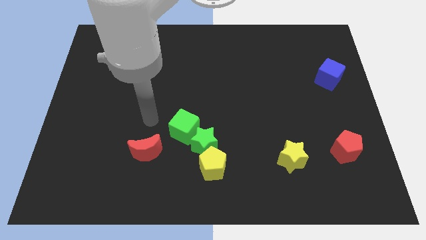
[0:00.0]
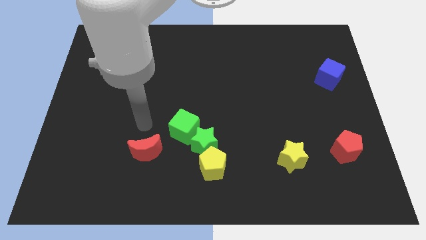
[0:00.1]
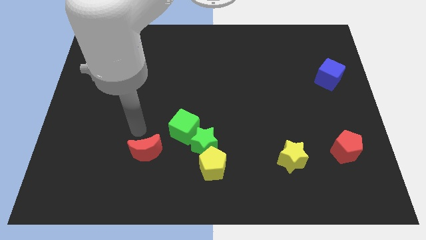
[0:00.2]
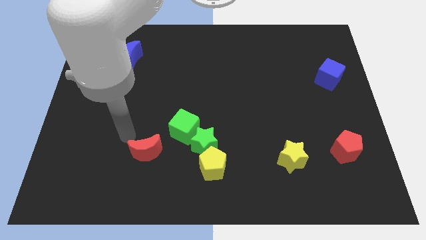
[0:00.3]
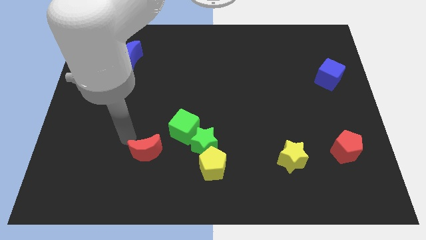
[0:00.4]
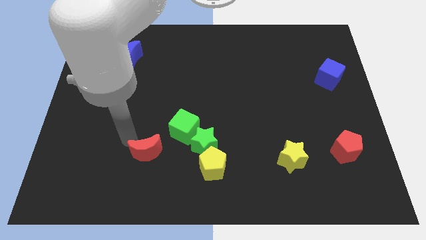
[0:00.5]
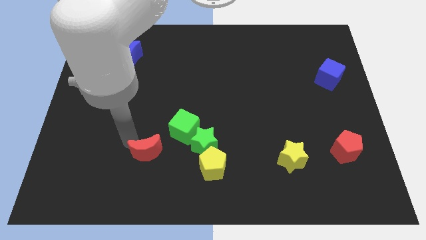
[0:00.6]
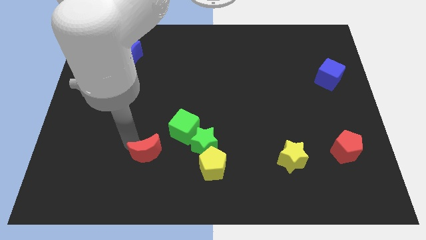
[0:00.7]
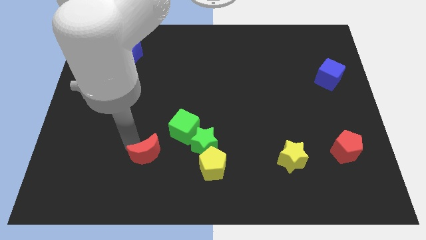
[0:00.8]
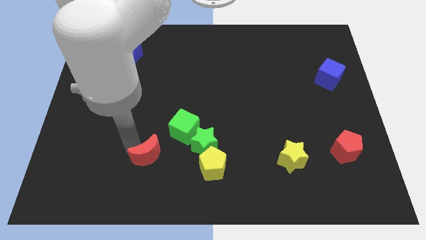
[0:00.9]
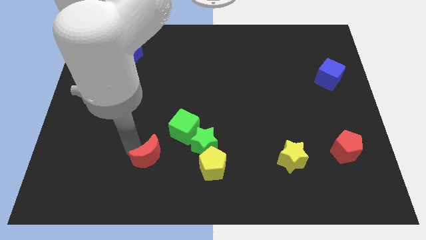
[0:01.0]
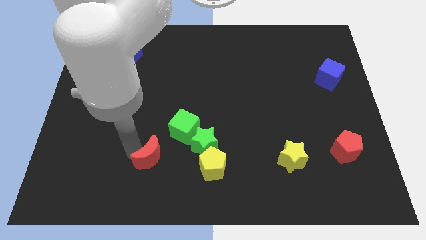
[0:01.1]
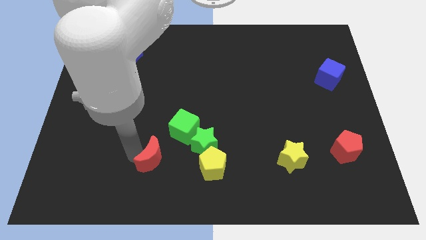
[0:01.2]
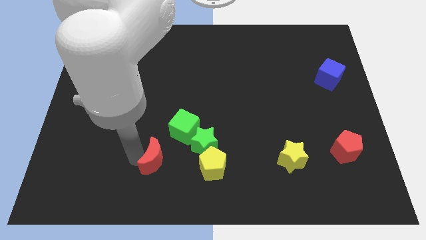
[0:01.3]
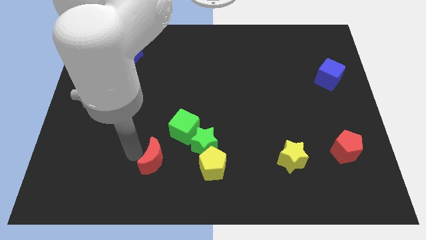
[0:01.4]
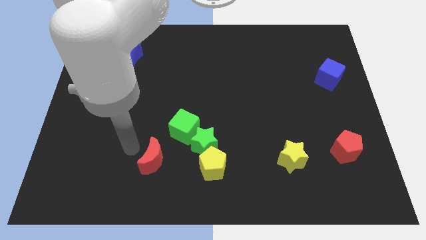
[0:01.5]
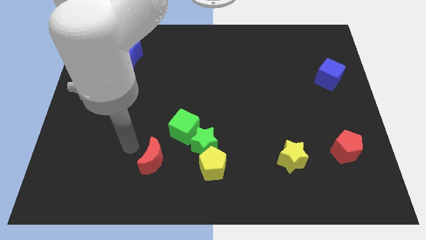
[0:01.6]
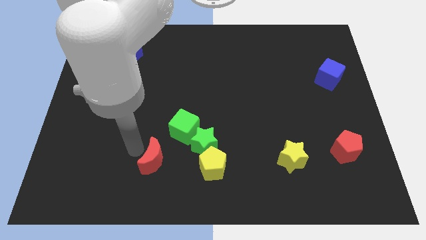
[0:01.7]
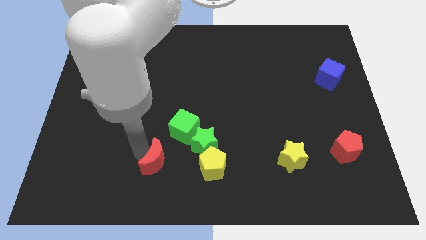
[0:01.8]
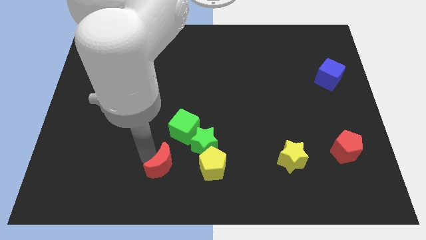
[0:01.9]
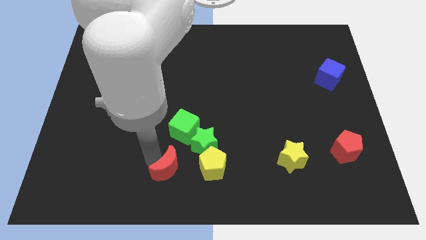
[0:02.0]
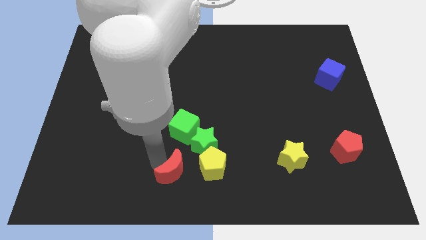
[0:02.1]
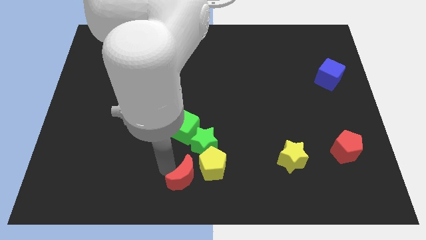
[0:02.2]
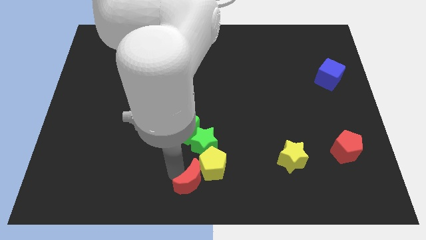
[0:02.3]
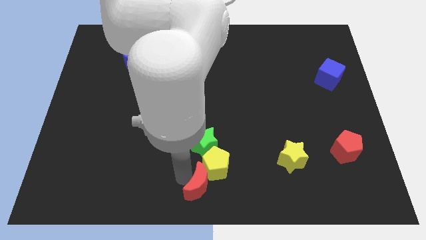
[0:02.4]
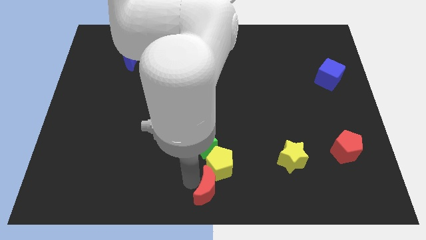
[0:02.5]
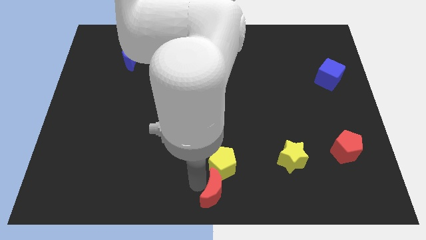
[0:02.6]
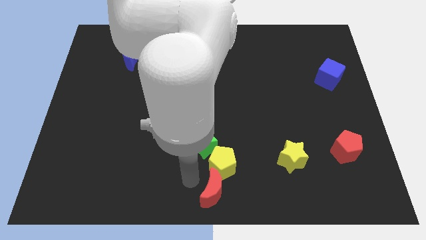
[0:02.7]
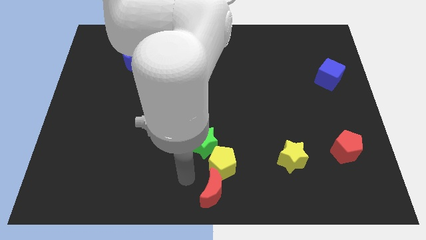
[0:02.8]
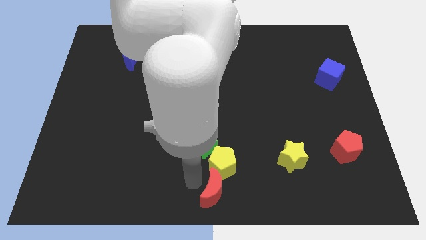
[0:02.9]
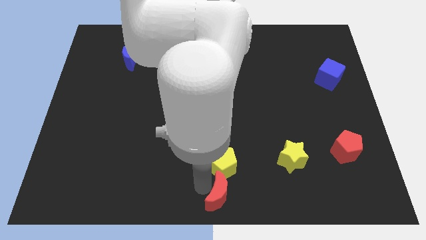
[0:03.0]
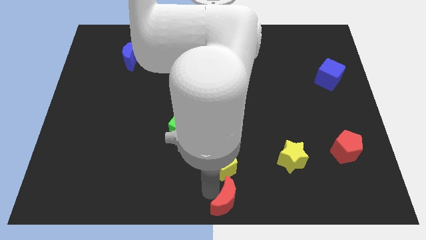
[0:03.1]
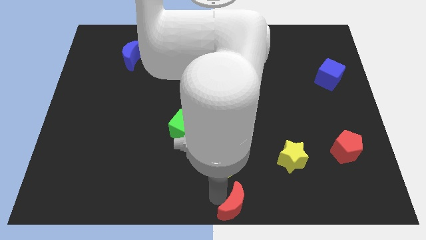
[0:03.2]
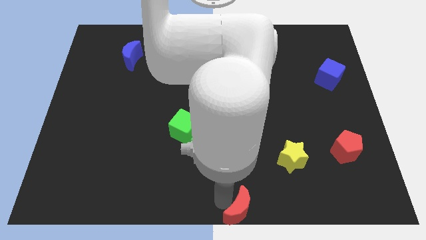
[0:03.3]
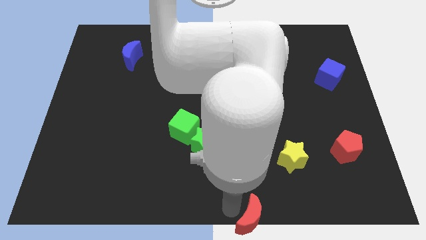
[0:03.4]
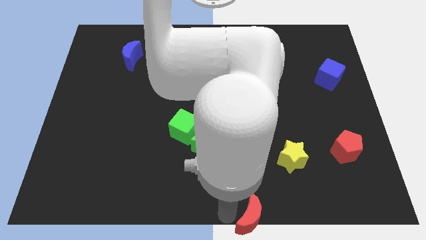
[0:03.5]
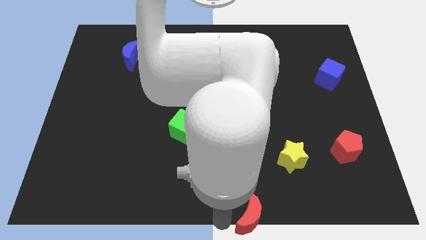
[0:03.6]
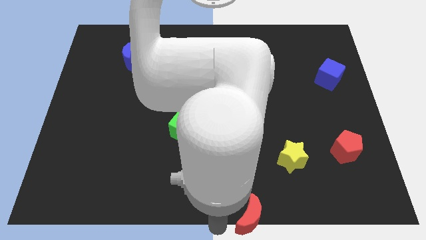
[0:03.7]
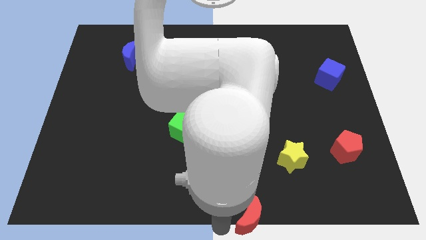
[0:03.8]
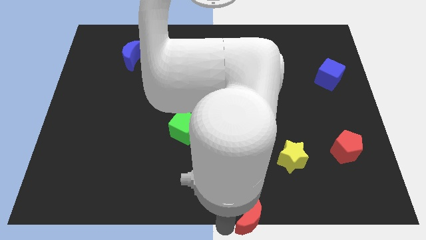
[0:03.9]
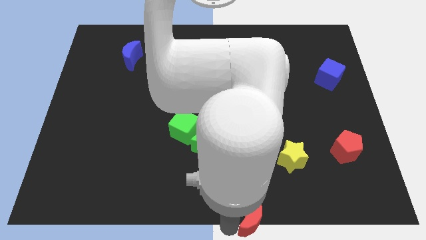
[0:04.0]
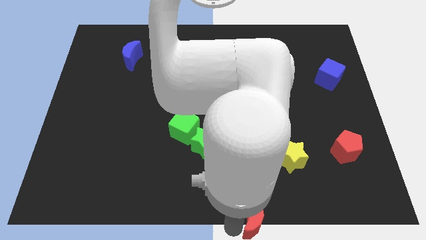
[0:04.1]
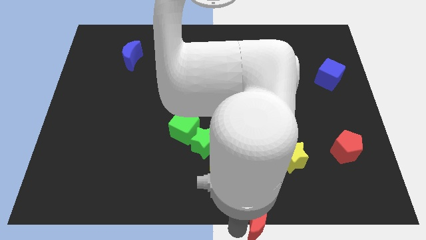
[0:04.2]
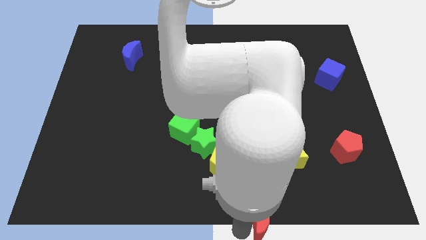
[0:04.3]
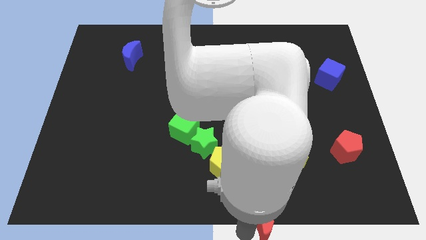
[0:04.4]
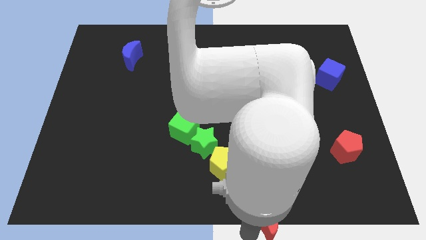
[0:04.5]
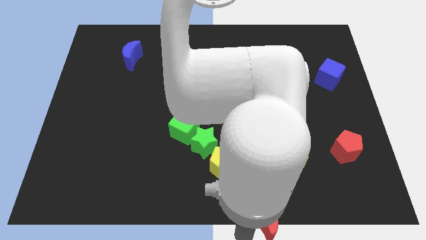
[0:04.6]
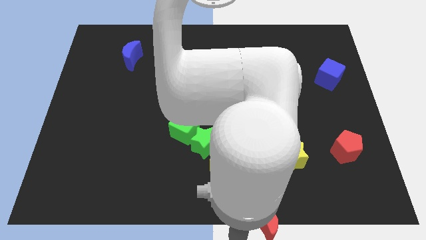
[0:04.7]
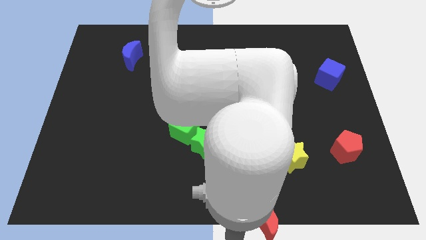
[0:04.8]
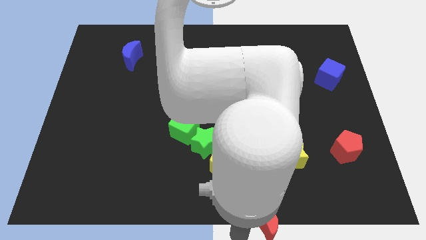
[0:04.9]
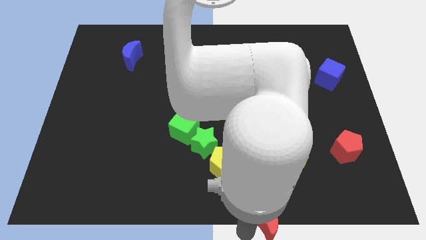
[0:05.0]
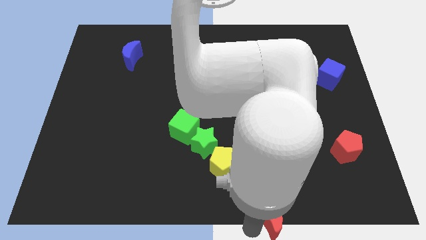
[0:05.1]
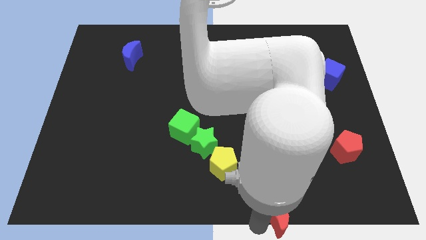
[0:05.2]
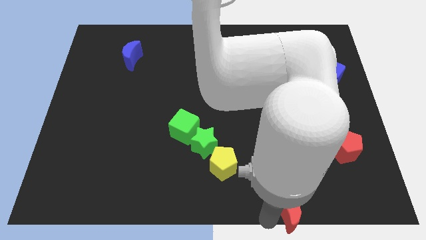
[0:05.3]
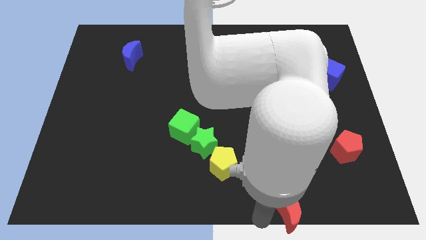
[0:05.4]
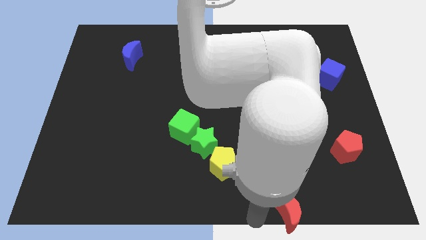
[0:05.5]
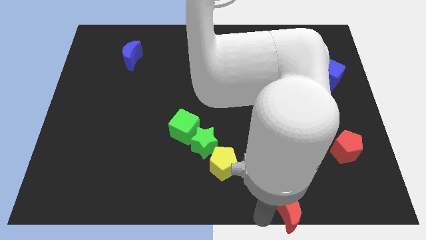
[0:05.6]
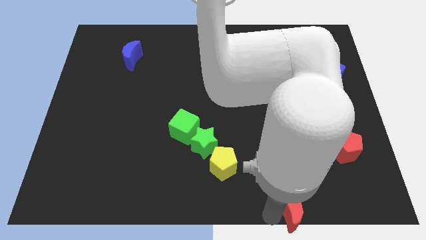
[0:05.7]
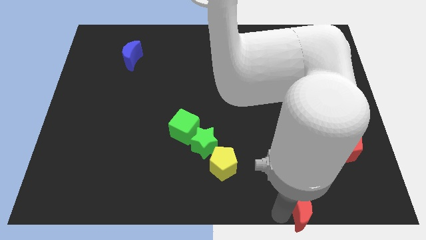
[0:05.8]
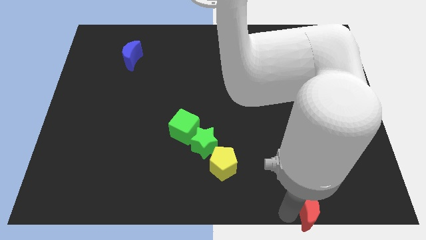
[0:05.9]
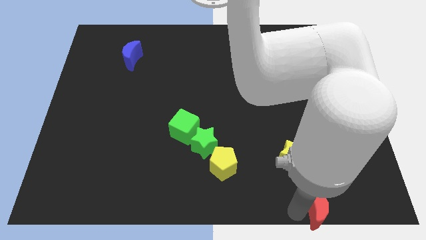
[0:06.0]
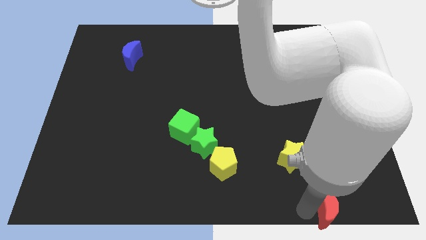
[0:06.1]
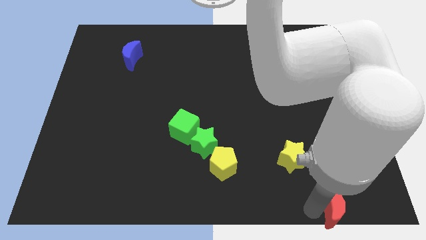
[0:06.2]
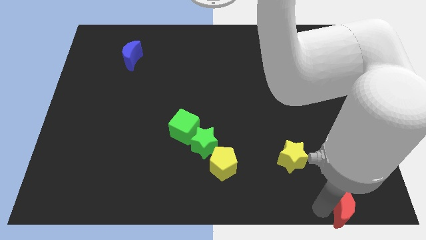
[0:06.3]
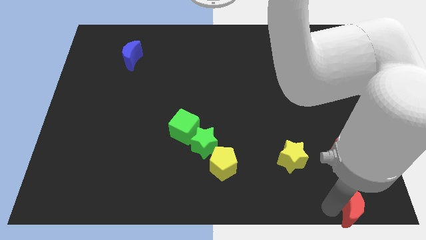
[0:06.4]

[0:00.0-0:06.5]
push the red moon to the bottom right of the board
